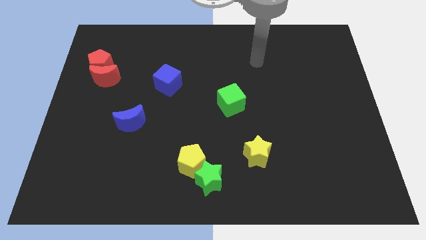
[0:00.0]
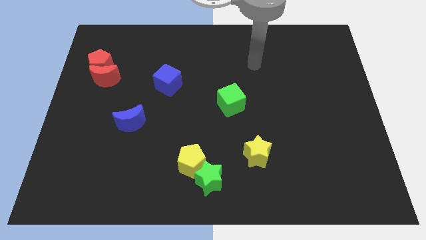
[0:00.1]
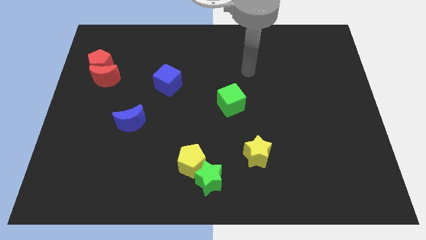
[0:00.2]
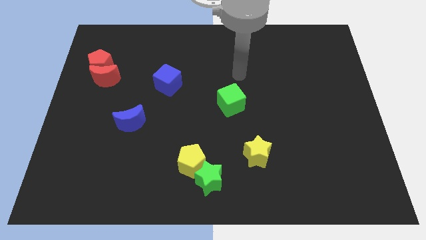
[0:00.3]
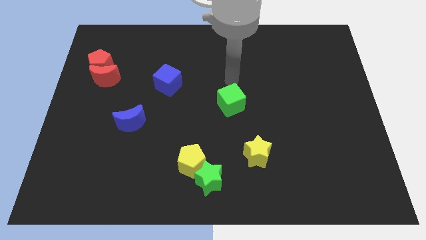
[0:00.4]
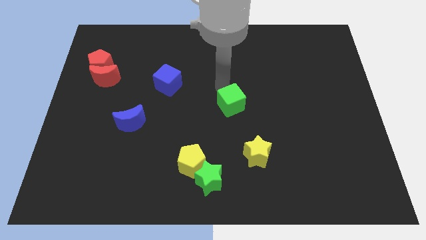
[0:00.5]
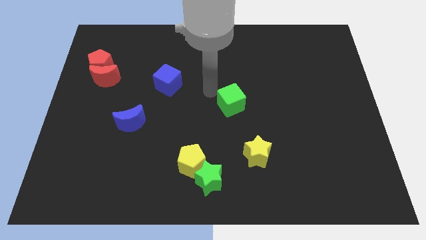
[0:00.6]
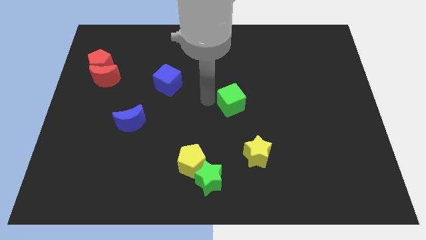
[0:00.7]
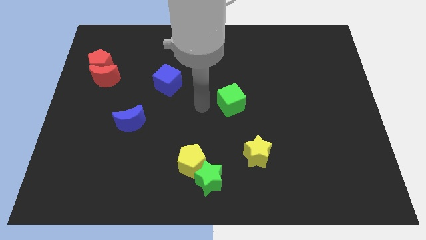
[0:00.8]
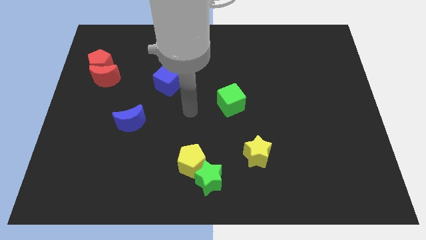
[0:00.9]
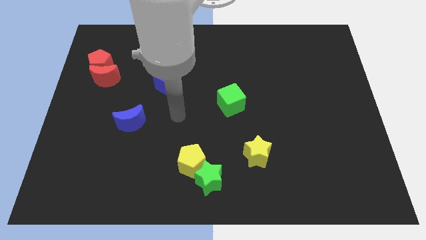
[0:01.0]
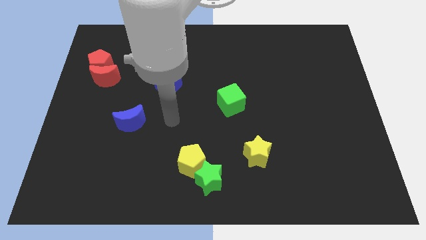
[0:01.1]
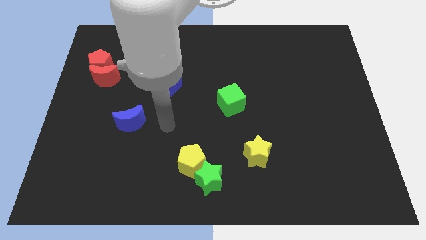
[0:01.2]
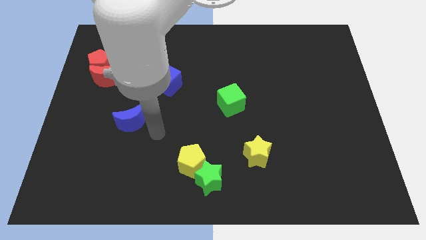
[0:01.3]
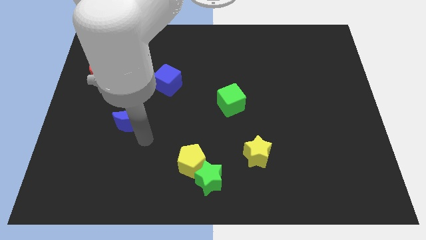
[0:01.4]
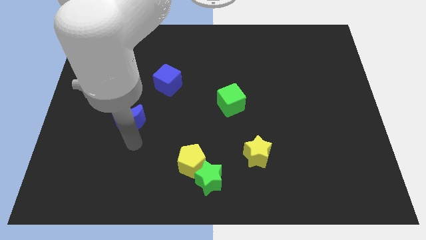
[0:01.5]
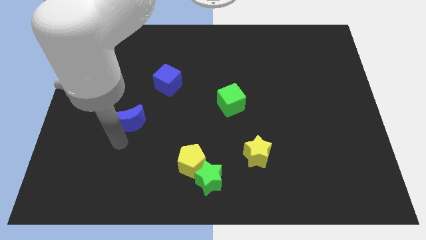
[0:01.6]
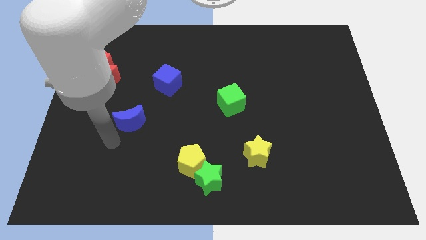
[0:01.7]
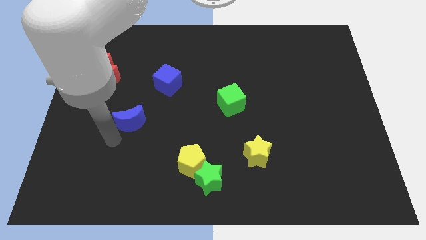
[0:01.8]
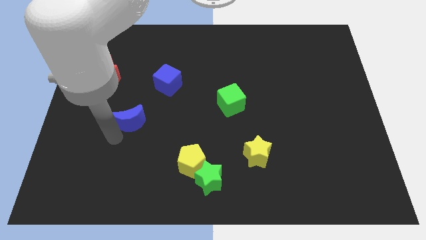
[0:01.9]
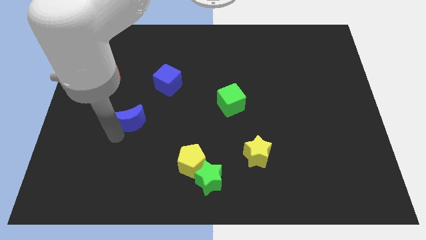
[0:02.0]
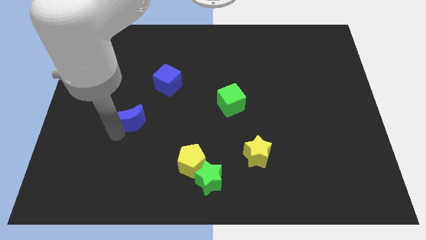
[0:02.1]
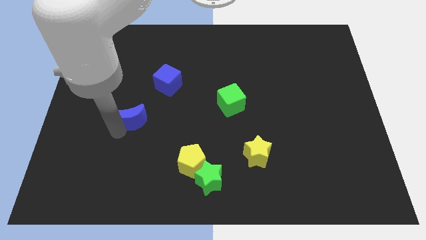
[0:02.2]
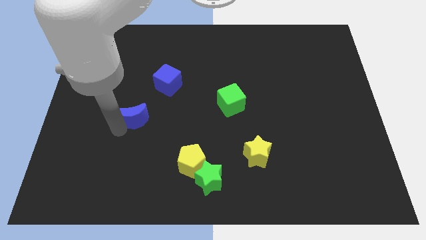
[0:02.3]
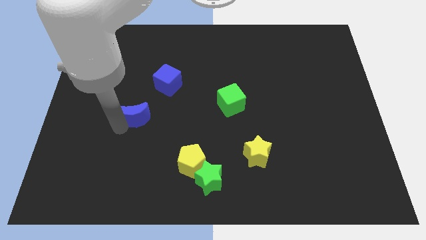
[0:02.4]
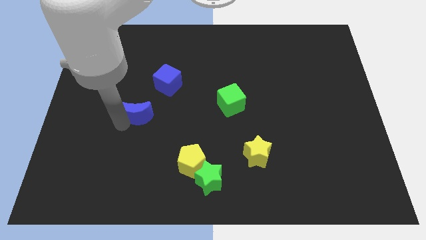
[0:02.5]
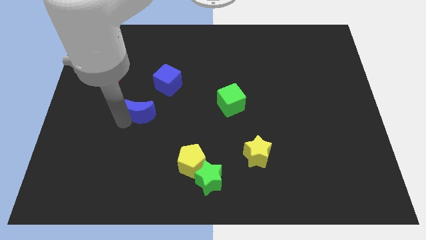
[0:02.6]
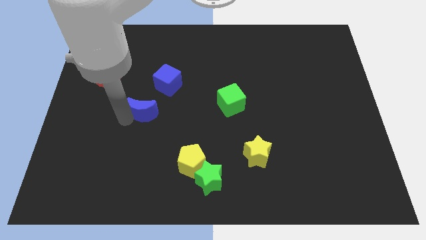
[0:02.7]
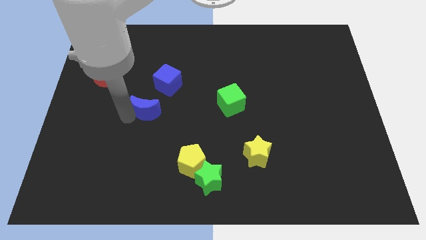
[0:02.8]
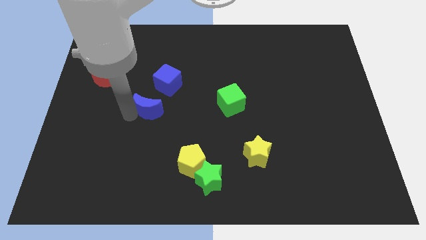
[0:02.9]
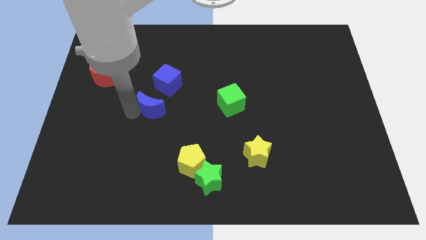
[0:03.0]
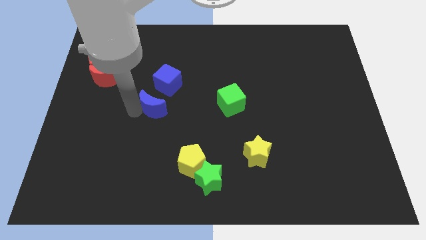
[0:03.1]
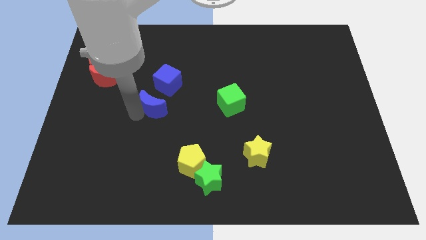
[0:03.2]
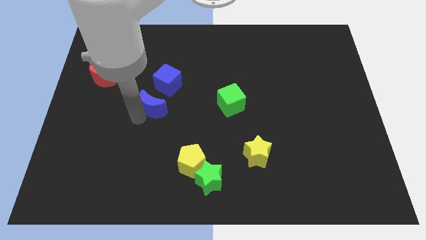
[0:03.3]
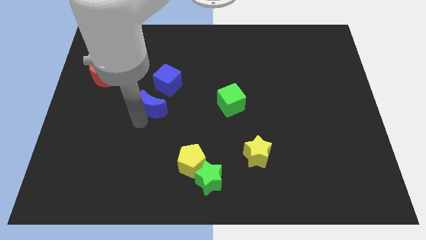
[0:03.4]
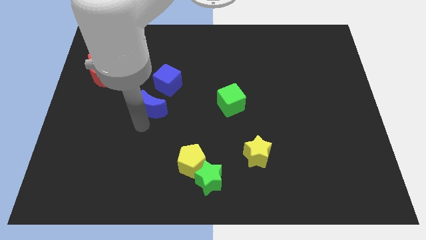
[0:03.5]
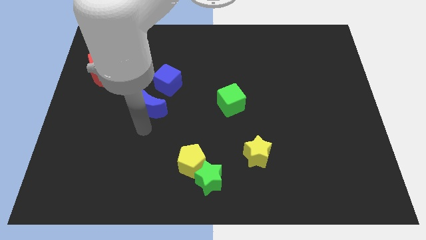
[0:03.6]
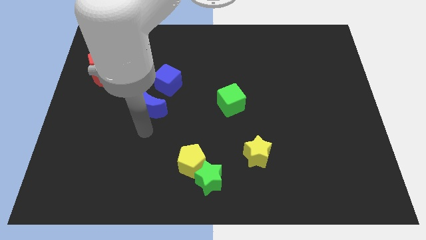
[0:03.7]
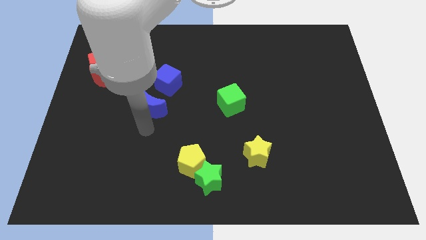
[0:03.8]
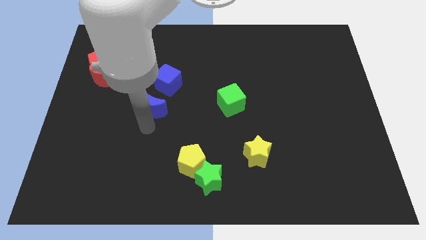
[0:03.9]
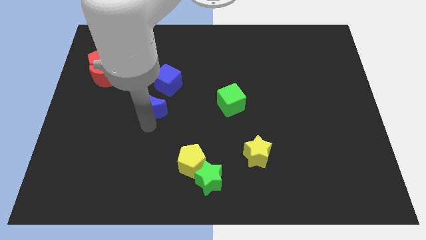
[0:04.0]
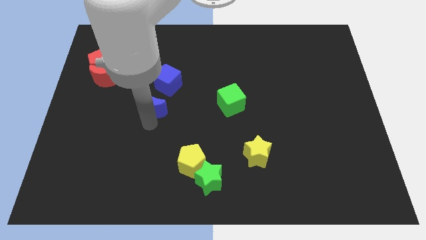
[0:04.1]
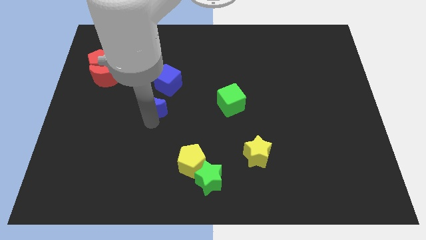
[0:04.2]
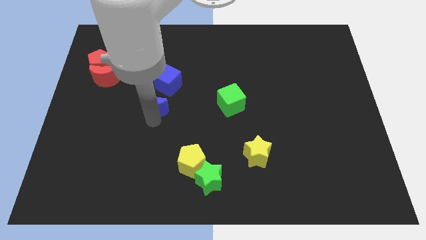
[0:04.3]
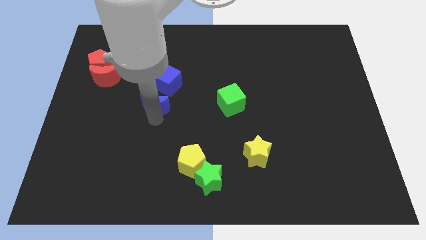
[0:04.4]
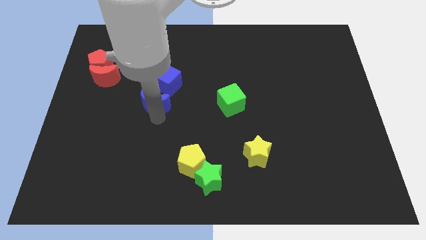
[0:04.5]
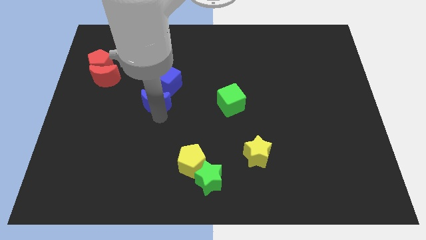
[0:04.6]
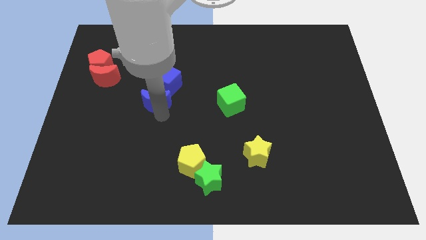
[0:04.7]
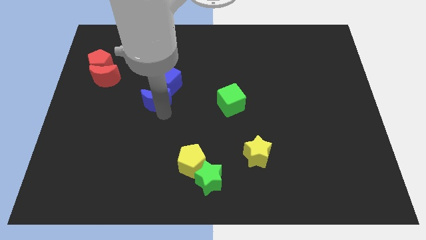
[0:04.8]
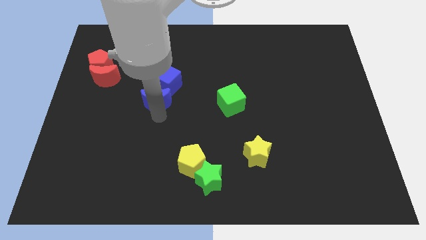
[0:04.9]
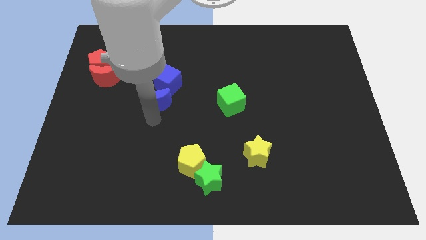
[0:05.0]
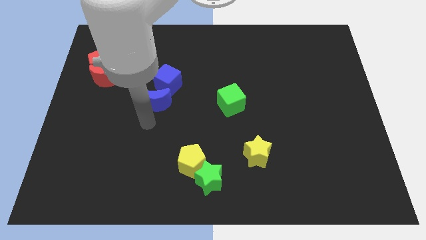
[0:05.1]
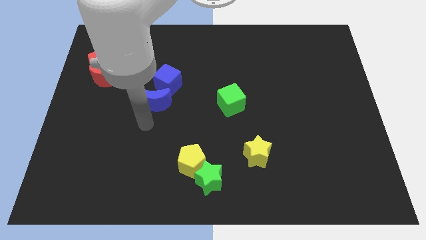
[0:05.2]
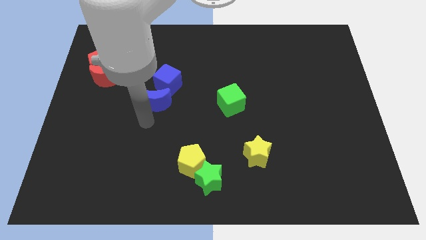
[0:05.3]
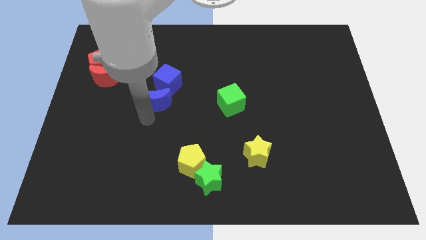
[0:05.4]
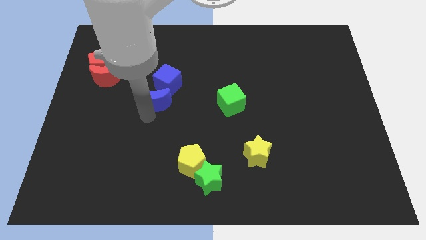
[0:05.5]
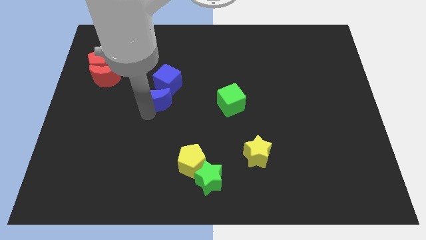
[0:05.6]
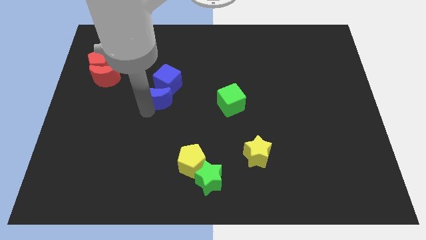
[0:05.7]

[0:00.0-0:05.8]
push the blue moon close to the blue cube

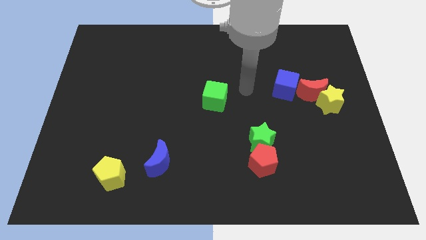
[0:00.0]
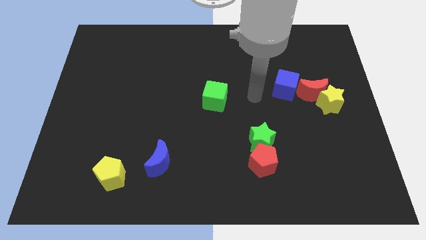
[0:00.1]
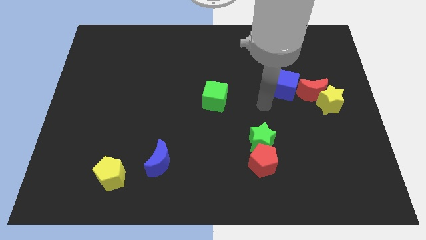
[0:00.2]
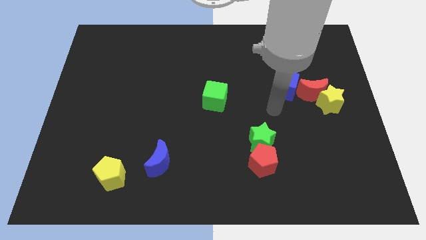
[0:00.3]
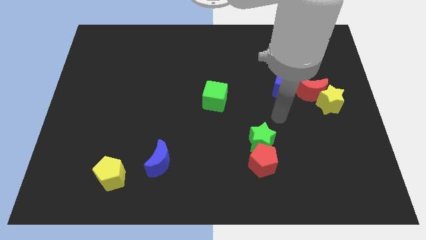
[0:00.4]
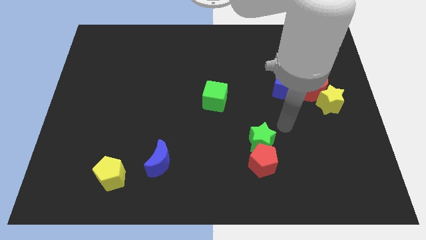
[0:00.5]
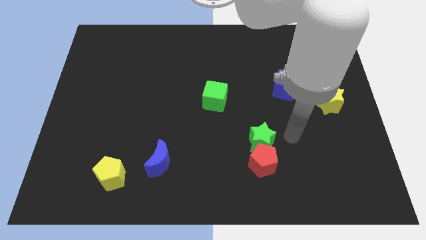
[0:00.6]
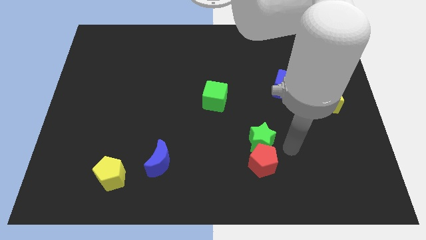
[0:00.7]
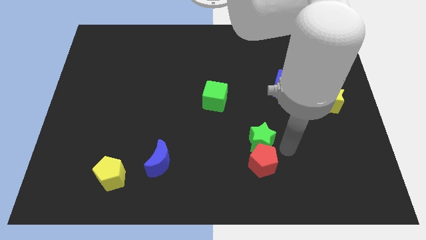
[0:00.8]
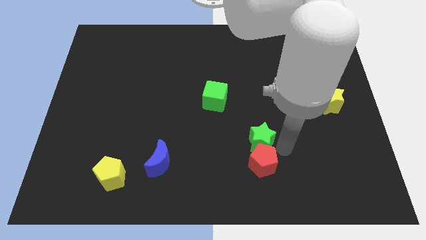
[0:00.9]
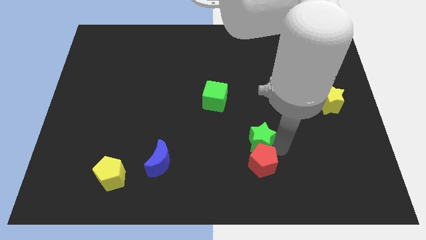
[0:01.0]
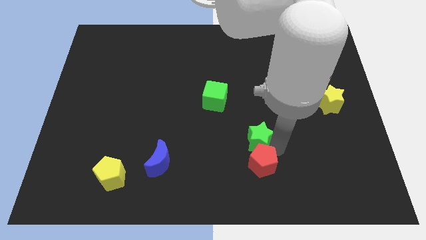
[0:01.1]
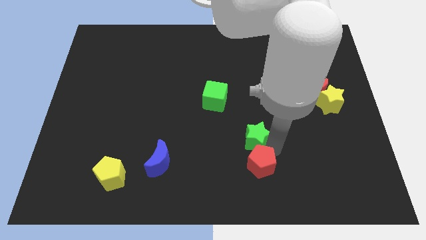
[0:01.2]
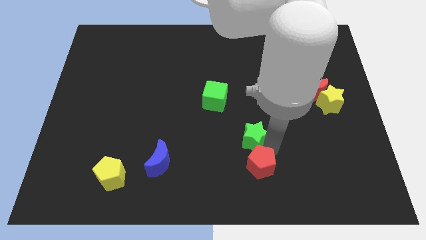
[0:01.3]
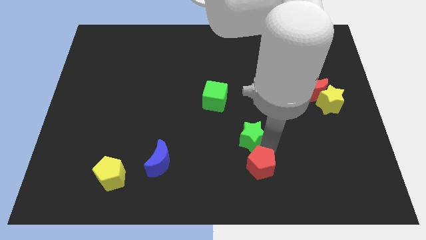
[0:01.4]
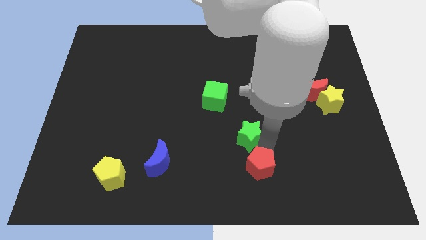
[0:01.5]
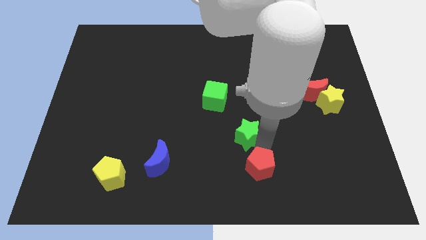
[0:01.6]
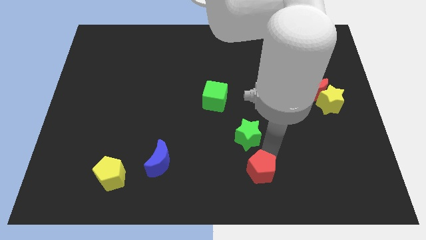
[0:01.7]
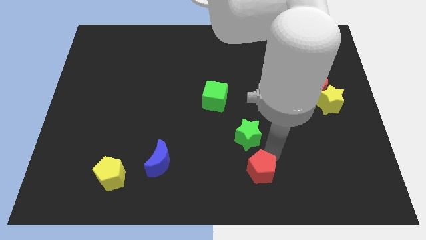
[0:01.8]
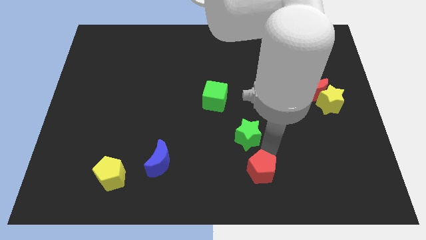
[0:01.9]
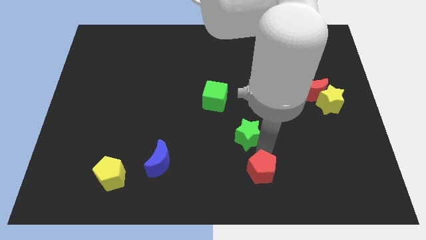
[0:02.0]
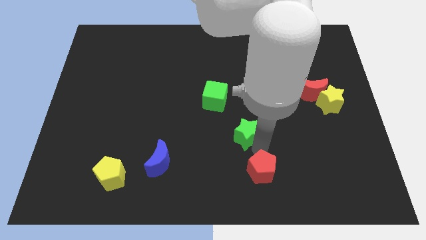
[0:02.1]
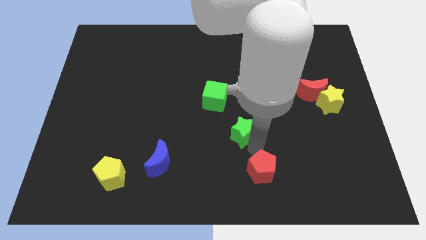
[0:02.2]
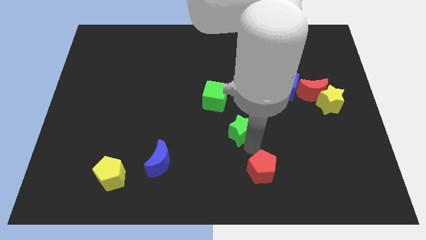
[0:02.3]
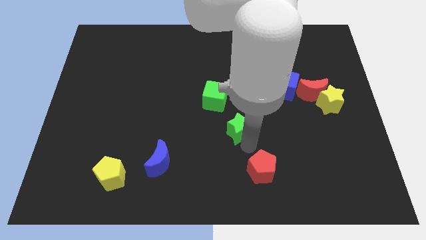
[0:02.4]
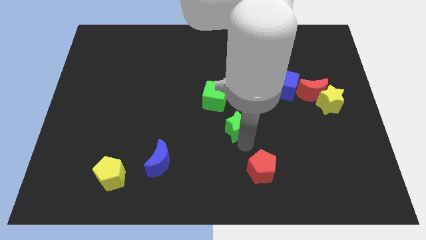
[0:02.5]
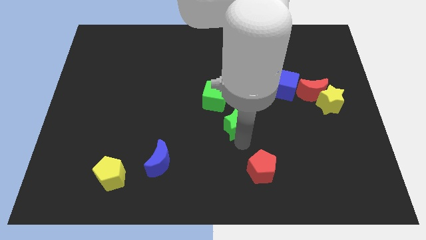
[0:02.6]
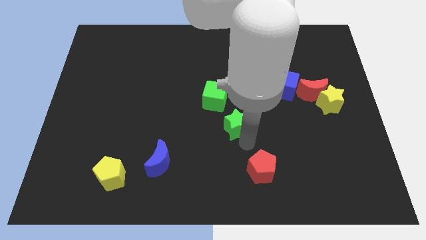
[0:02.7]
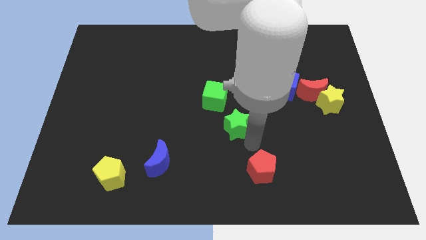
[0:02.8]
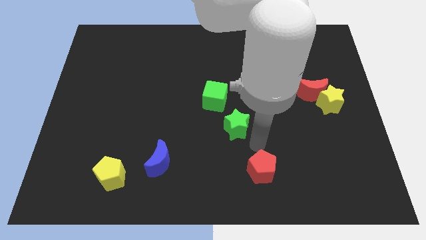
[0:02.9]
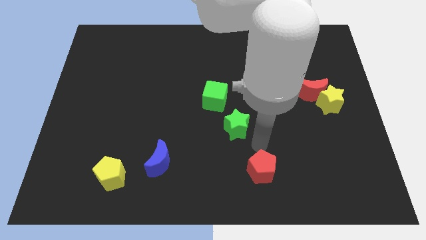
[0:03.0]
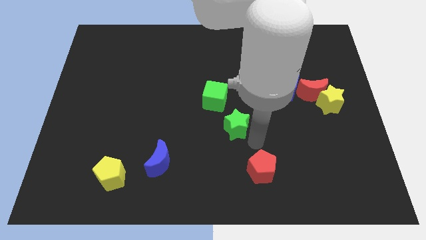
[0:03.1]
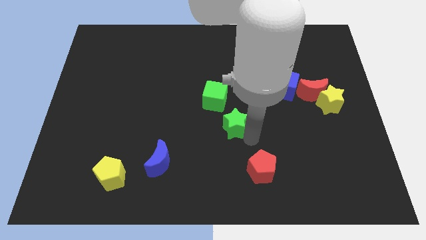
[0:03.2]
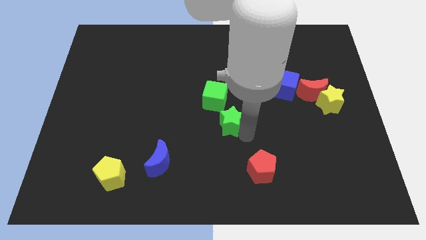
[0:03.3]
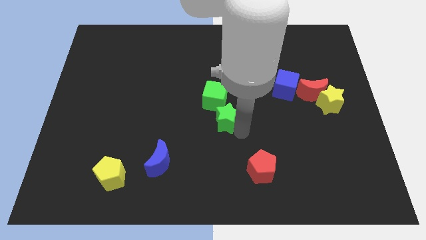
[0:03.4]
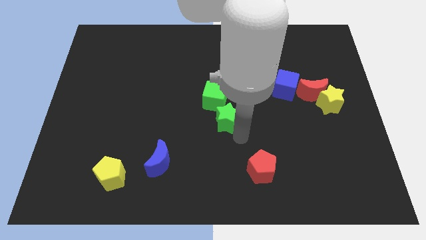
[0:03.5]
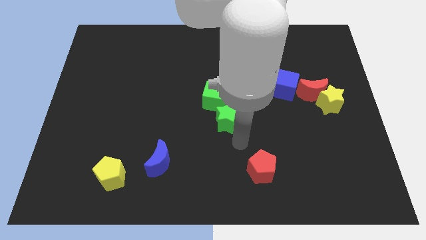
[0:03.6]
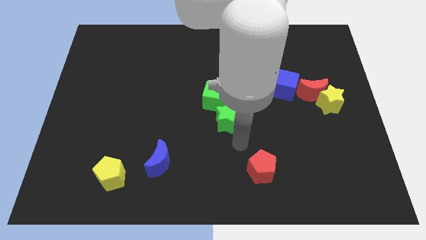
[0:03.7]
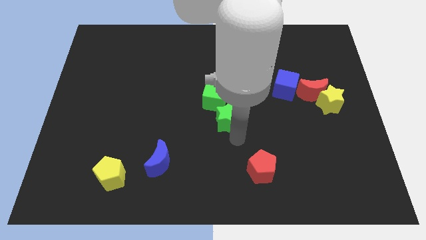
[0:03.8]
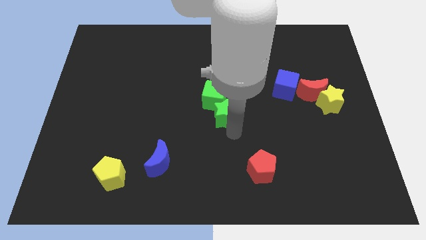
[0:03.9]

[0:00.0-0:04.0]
push the green star towards the green cube
